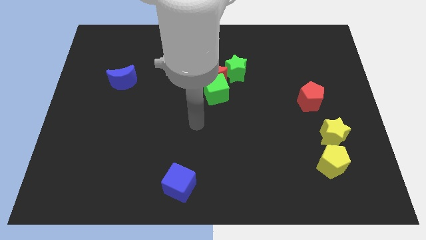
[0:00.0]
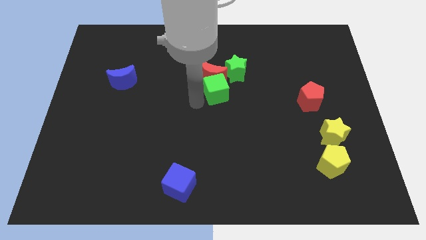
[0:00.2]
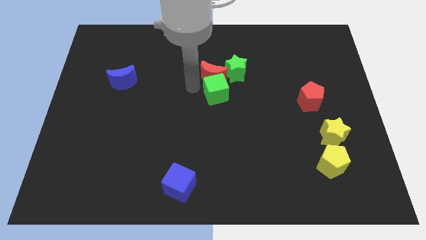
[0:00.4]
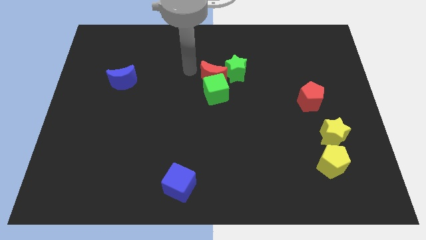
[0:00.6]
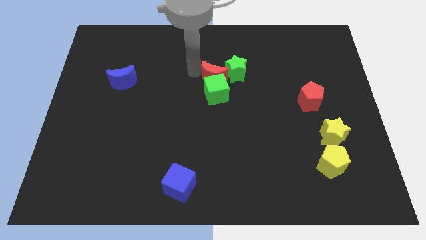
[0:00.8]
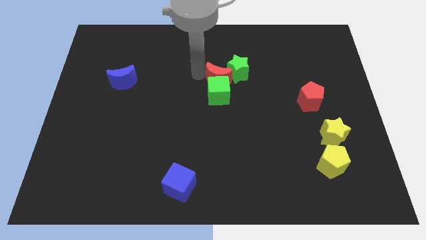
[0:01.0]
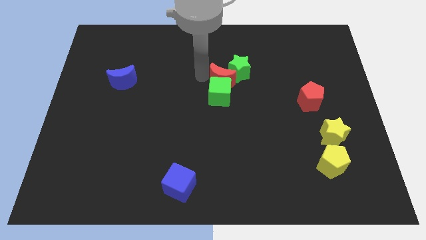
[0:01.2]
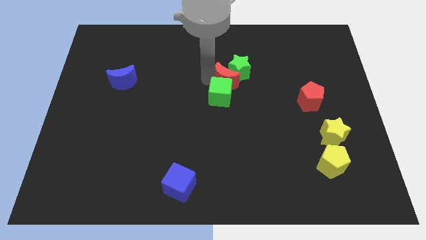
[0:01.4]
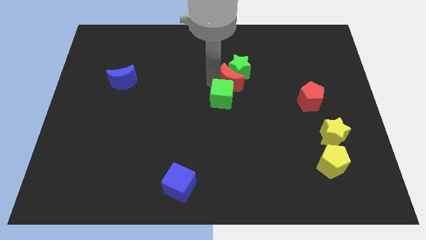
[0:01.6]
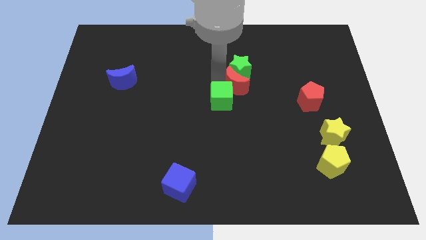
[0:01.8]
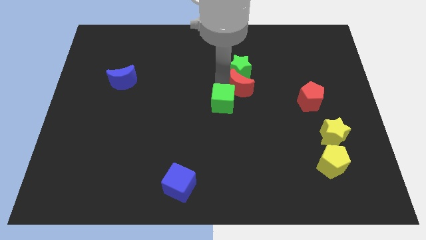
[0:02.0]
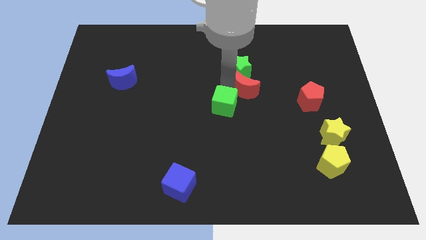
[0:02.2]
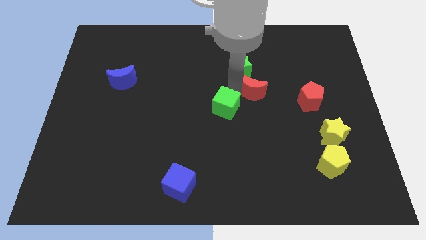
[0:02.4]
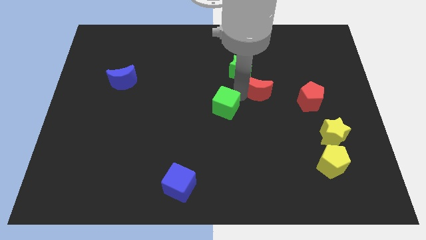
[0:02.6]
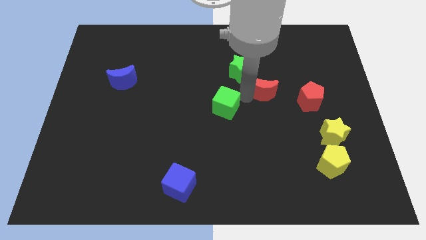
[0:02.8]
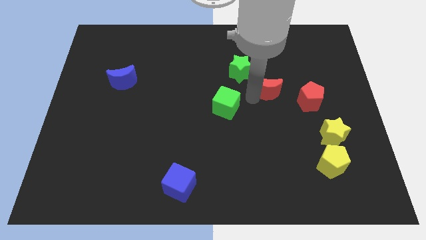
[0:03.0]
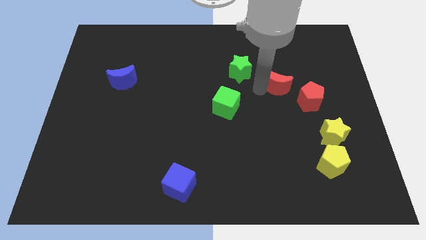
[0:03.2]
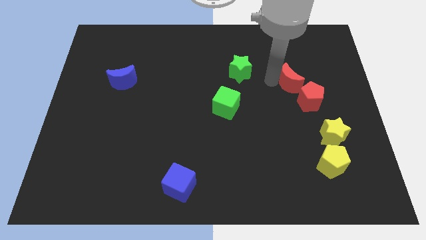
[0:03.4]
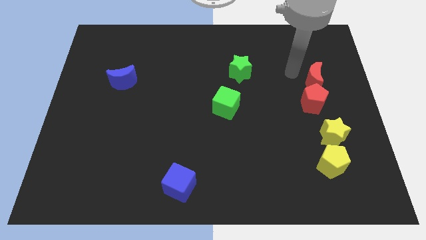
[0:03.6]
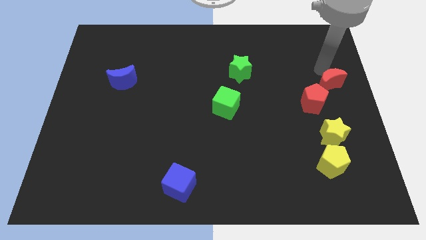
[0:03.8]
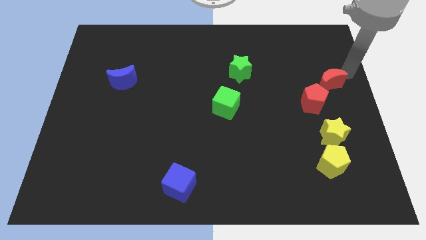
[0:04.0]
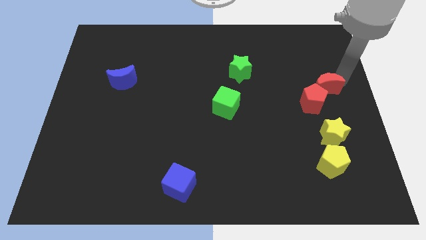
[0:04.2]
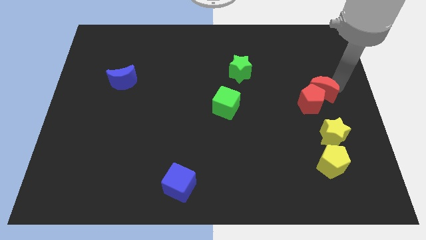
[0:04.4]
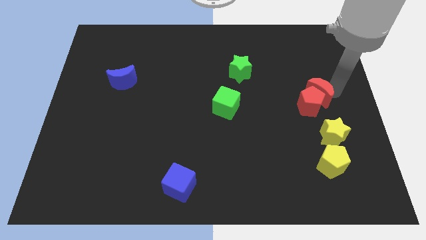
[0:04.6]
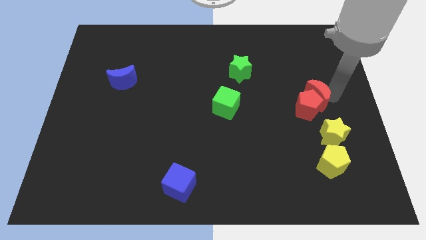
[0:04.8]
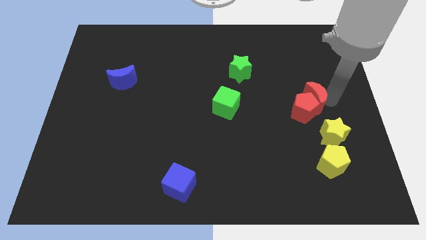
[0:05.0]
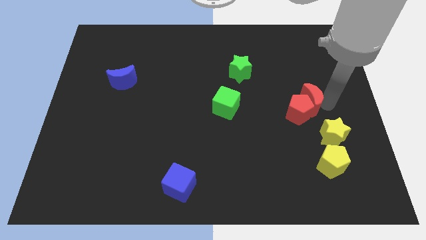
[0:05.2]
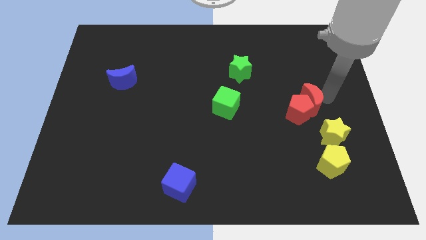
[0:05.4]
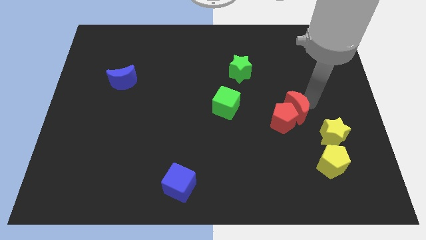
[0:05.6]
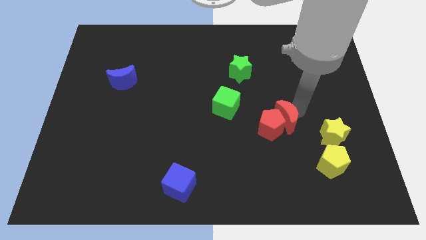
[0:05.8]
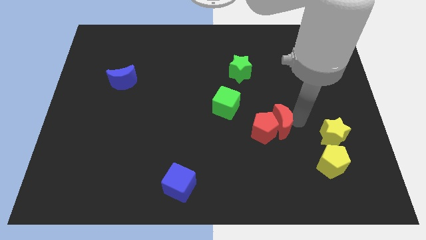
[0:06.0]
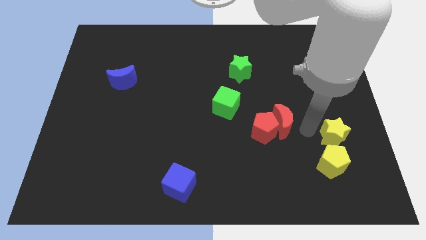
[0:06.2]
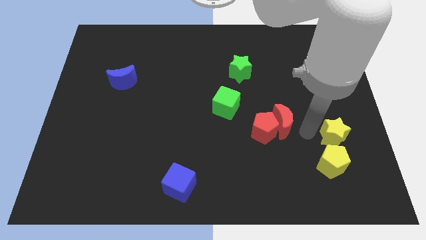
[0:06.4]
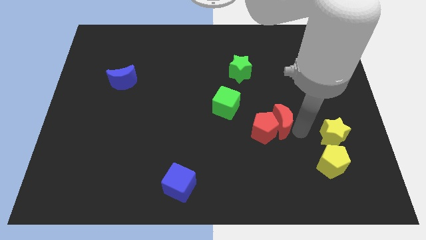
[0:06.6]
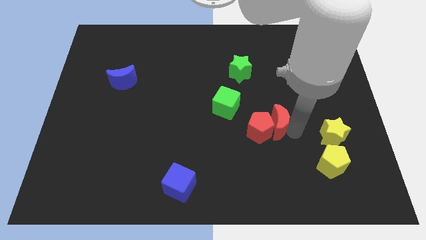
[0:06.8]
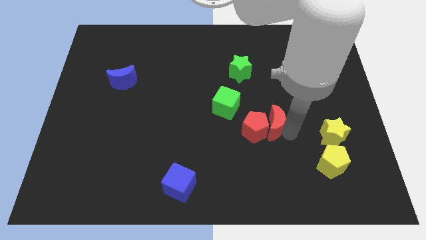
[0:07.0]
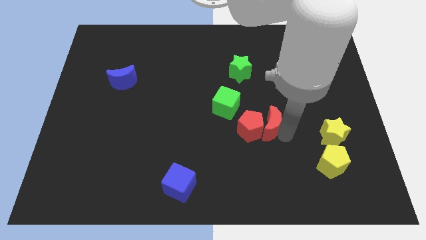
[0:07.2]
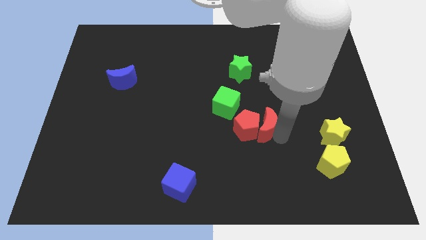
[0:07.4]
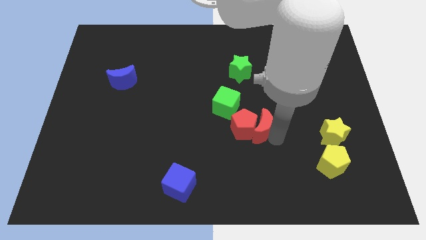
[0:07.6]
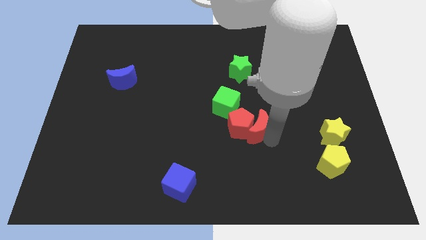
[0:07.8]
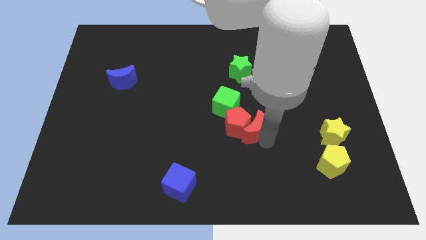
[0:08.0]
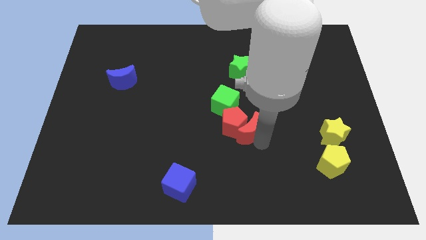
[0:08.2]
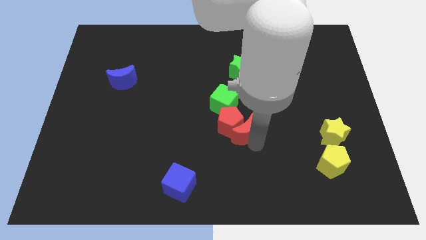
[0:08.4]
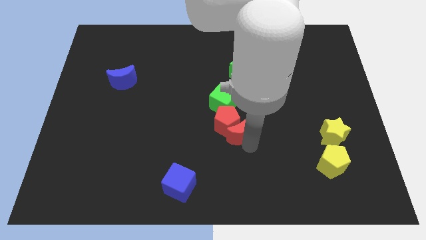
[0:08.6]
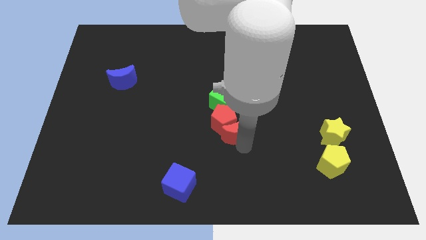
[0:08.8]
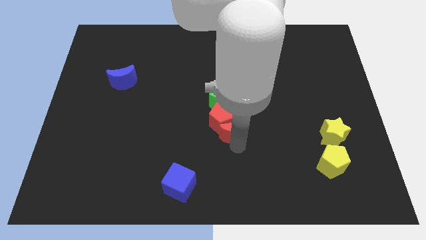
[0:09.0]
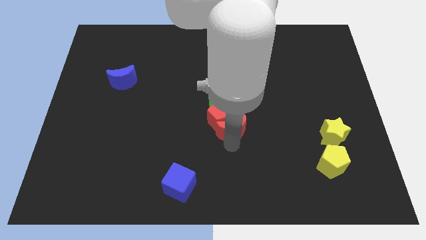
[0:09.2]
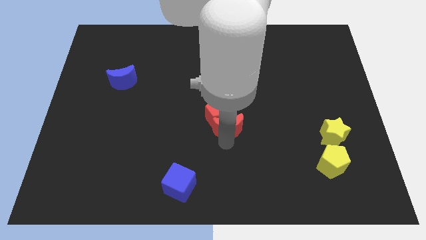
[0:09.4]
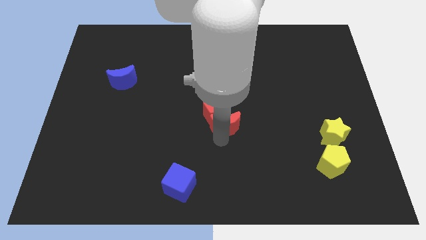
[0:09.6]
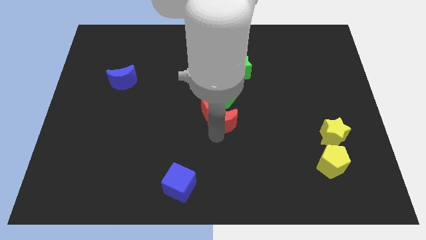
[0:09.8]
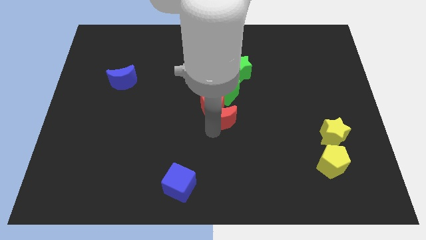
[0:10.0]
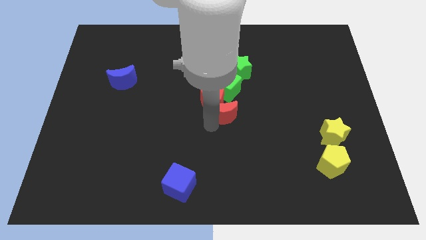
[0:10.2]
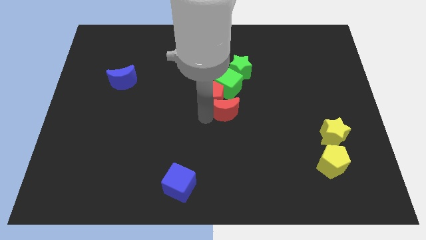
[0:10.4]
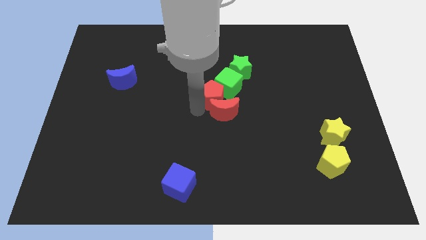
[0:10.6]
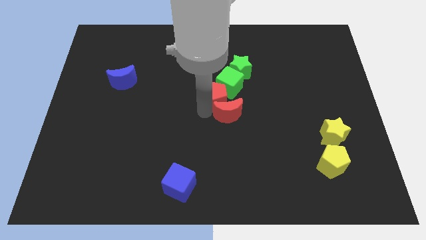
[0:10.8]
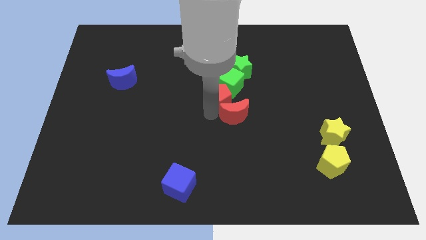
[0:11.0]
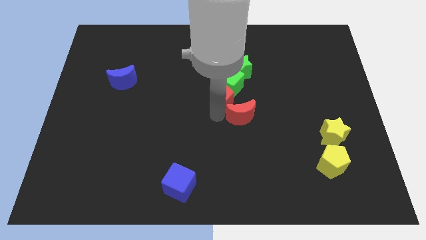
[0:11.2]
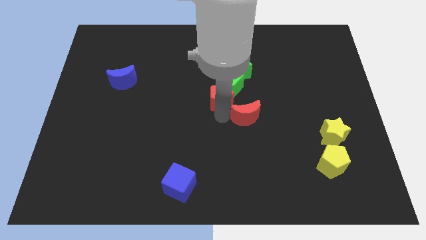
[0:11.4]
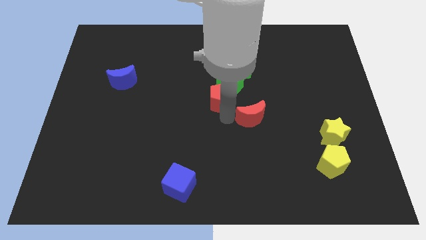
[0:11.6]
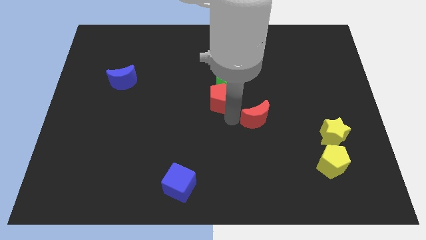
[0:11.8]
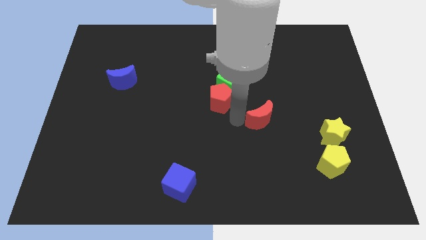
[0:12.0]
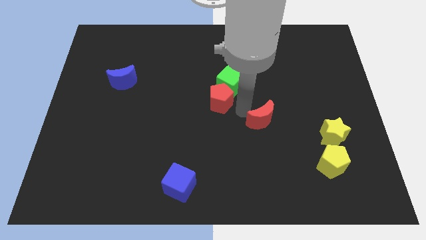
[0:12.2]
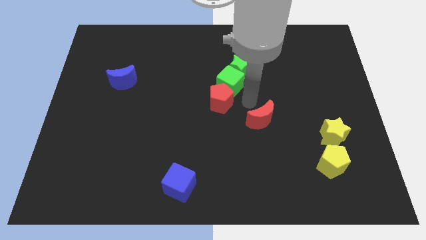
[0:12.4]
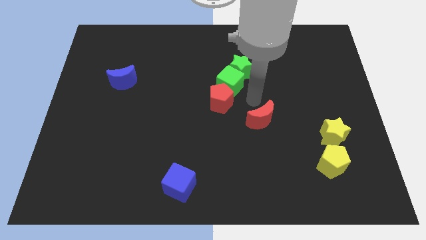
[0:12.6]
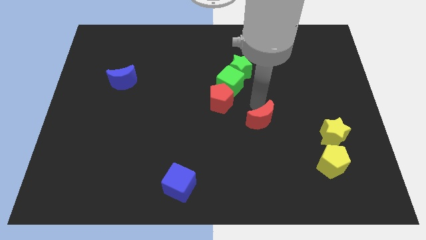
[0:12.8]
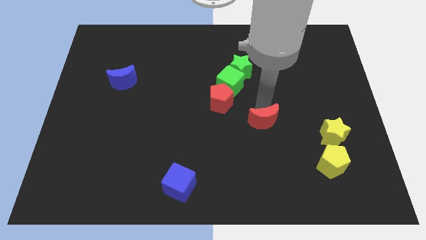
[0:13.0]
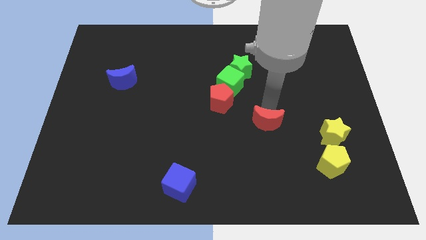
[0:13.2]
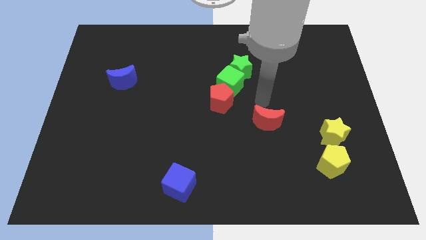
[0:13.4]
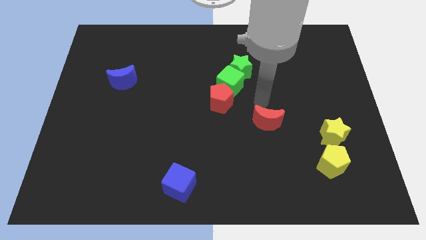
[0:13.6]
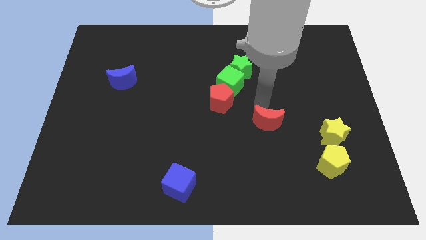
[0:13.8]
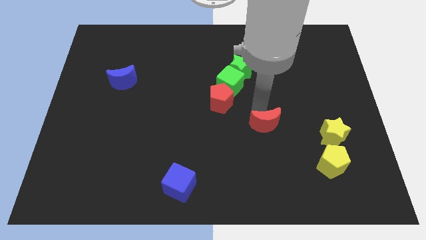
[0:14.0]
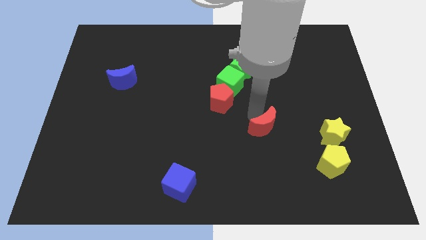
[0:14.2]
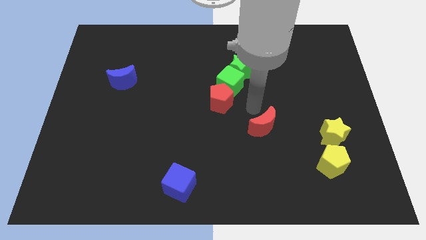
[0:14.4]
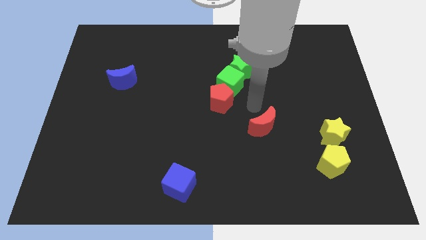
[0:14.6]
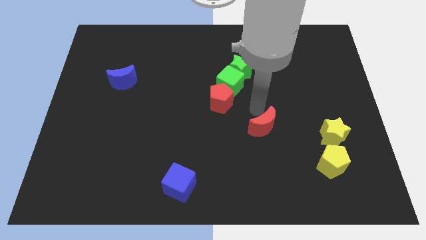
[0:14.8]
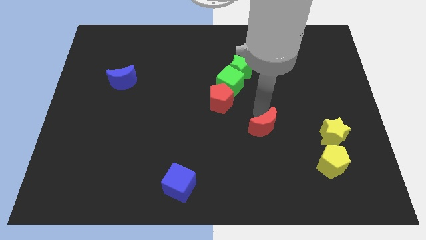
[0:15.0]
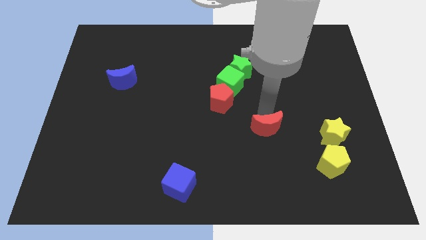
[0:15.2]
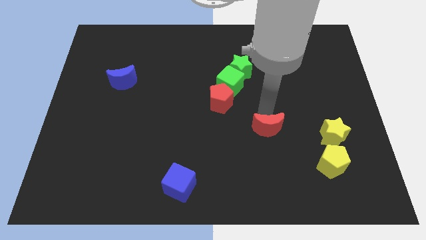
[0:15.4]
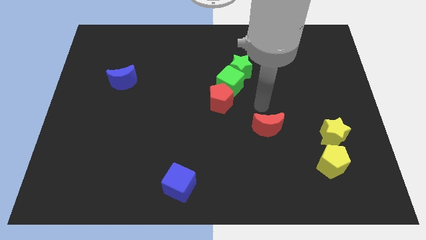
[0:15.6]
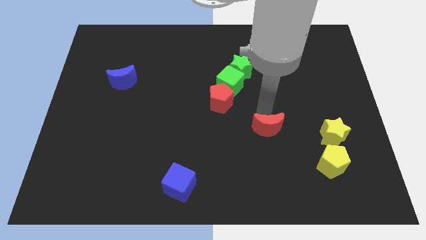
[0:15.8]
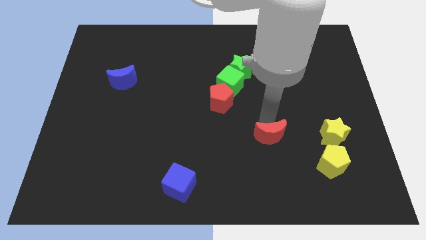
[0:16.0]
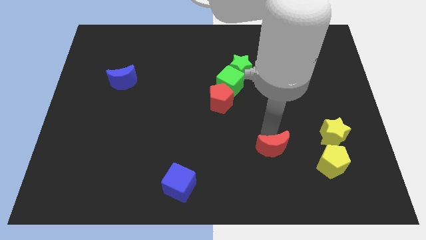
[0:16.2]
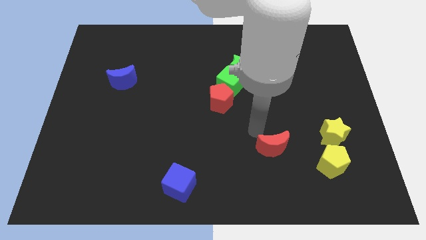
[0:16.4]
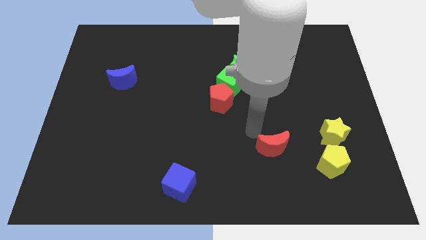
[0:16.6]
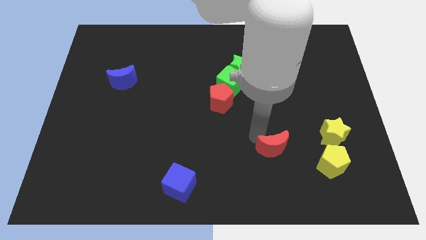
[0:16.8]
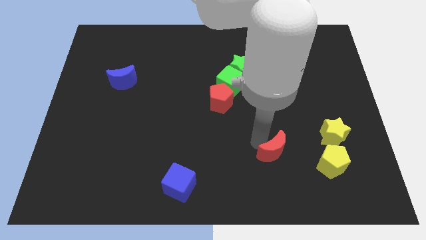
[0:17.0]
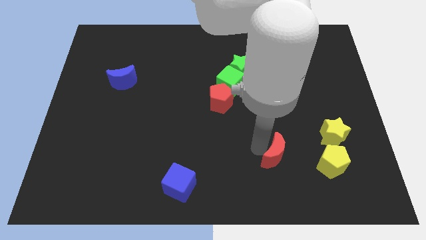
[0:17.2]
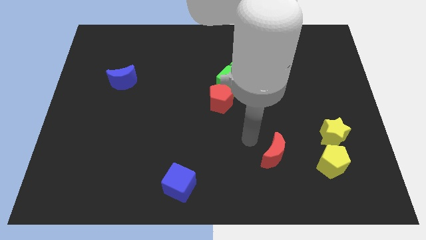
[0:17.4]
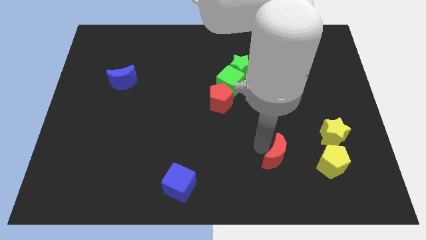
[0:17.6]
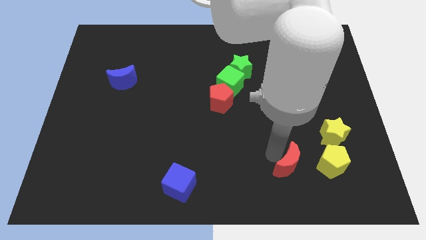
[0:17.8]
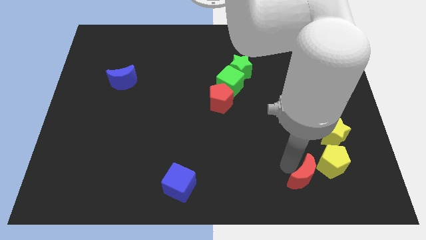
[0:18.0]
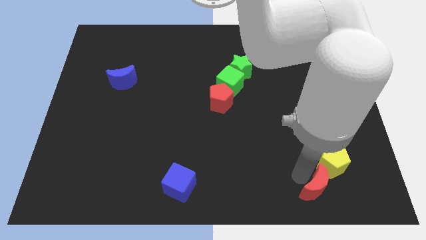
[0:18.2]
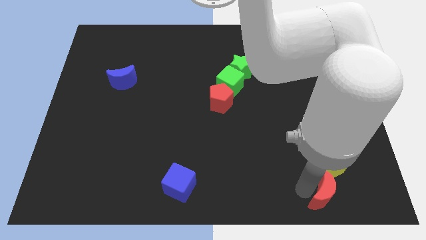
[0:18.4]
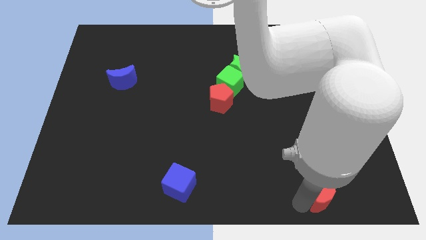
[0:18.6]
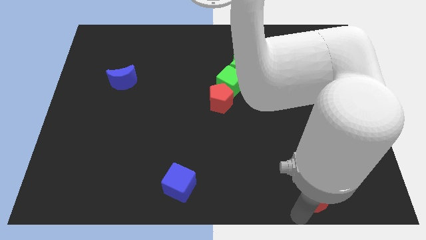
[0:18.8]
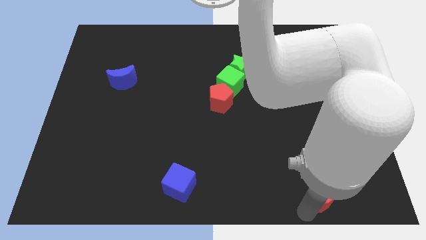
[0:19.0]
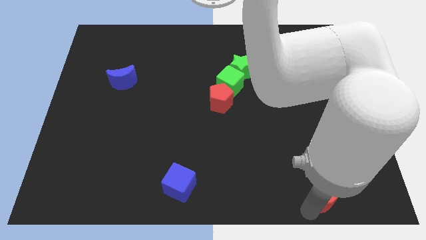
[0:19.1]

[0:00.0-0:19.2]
put the red moon below the yellow star
